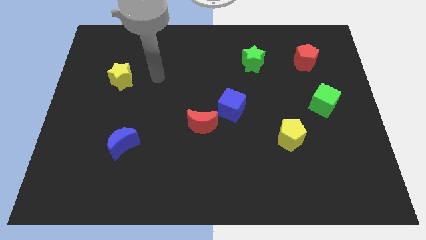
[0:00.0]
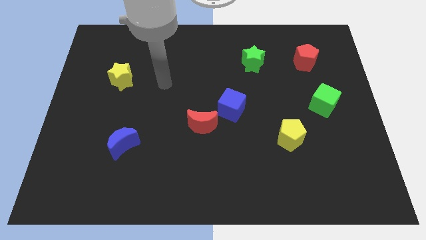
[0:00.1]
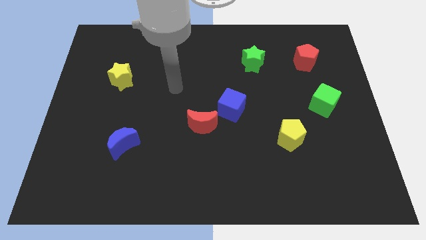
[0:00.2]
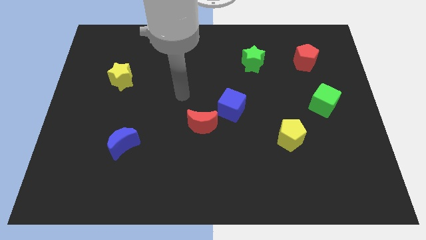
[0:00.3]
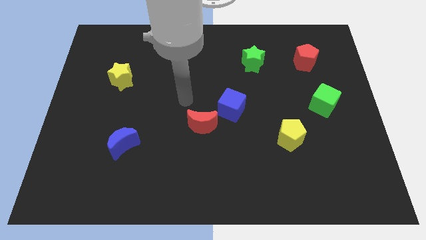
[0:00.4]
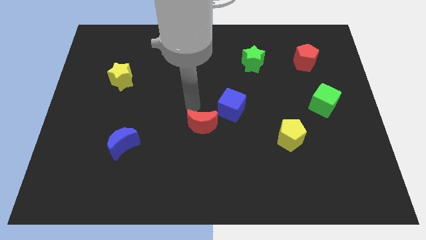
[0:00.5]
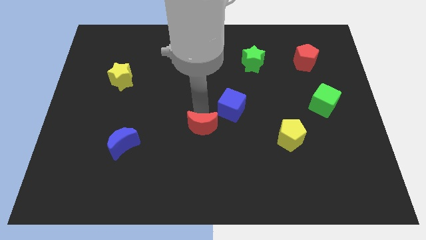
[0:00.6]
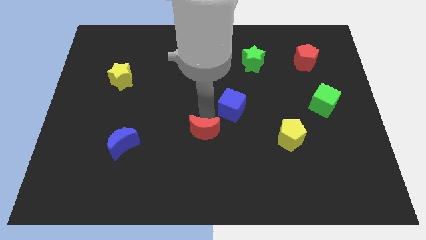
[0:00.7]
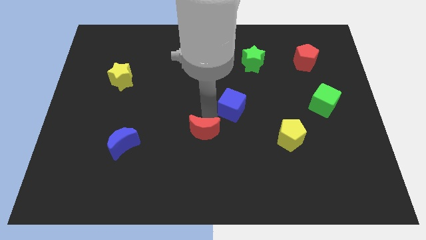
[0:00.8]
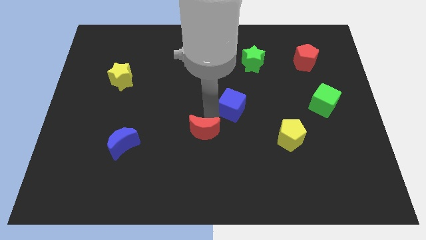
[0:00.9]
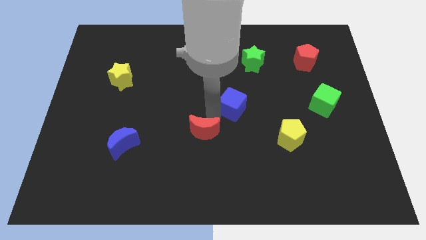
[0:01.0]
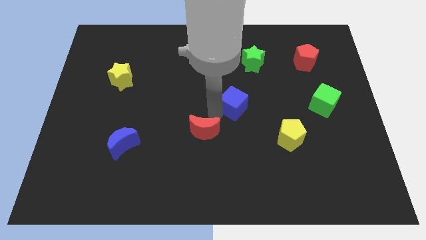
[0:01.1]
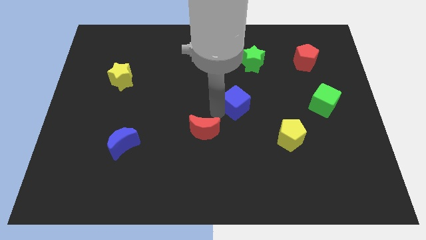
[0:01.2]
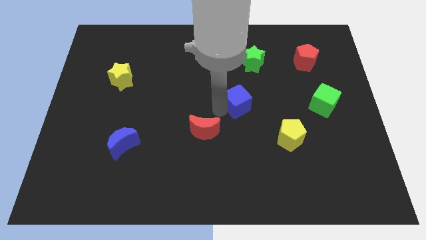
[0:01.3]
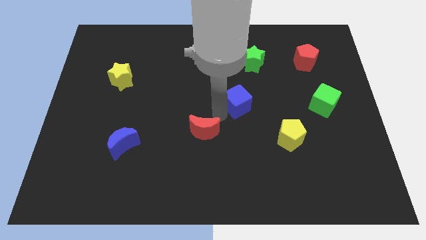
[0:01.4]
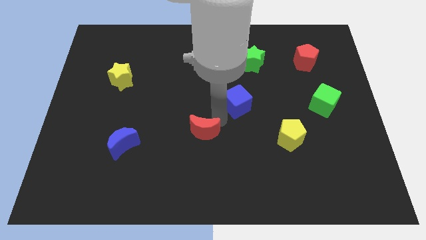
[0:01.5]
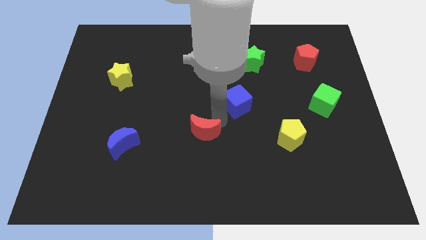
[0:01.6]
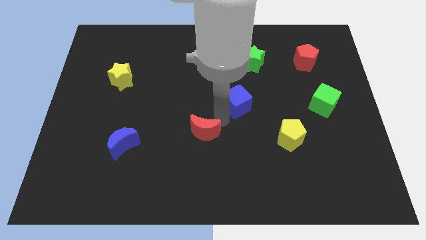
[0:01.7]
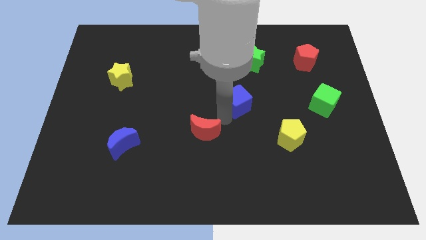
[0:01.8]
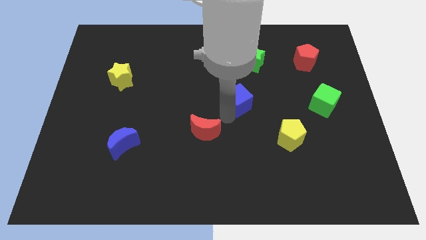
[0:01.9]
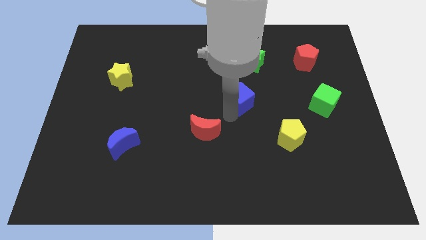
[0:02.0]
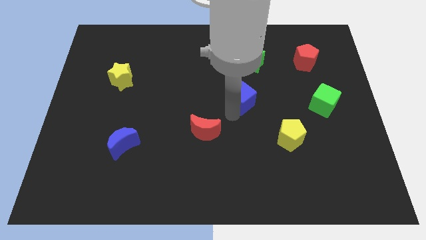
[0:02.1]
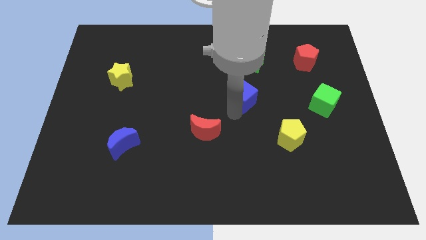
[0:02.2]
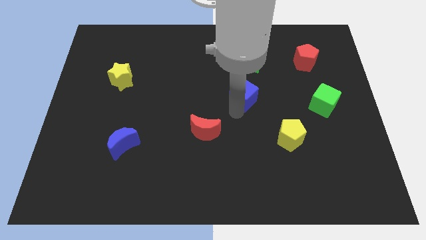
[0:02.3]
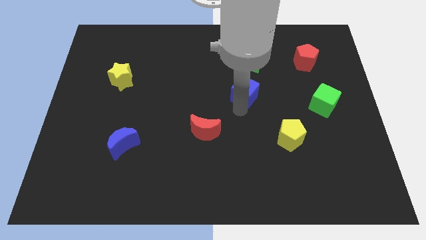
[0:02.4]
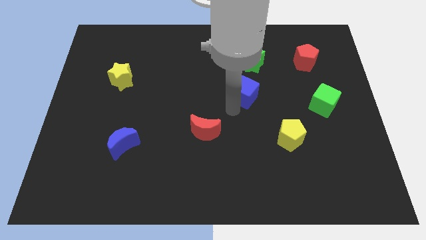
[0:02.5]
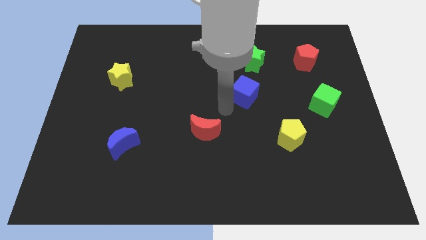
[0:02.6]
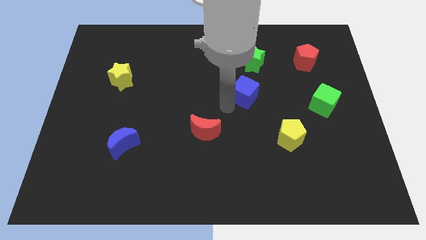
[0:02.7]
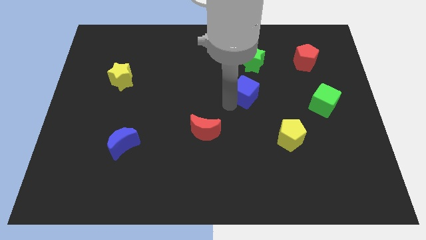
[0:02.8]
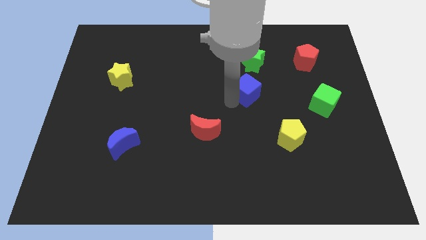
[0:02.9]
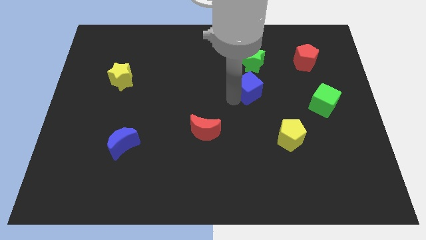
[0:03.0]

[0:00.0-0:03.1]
move the blue cube up and to the right somewhat

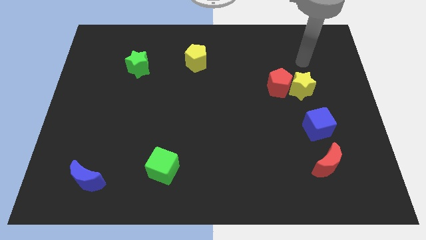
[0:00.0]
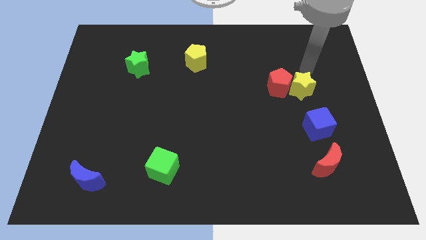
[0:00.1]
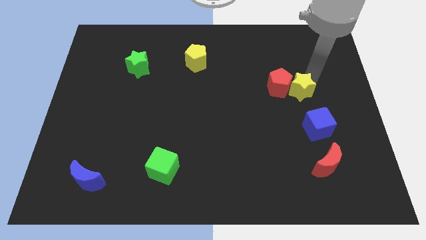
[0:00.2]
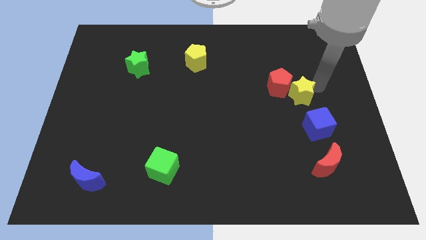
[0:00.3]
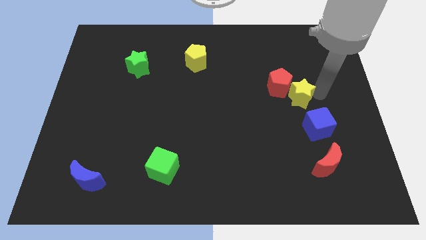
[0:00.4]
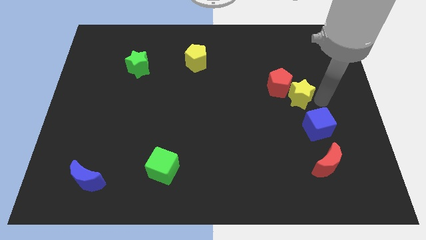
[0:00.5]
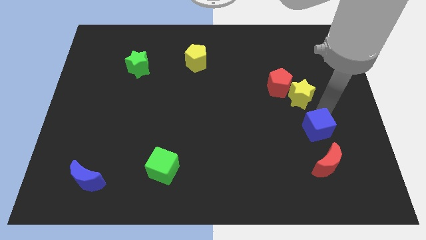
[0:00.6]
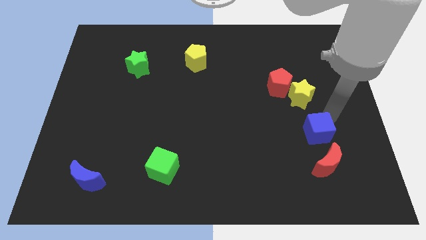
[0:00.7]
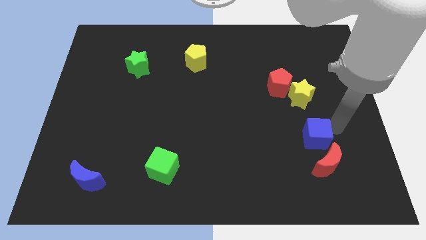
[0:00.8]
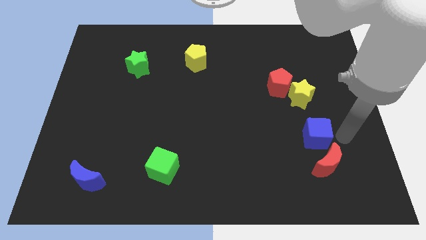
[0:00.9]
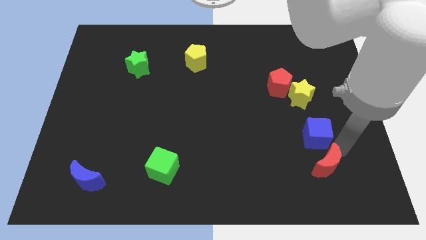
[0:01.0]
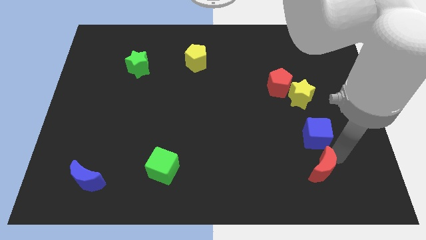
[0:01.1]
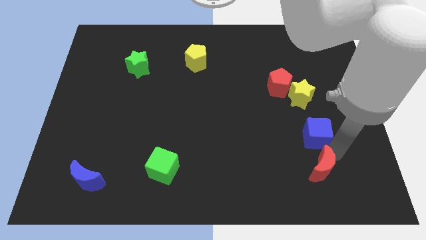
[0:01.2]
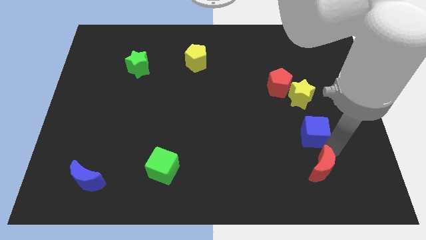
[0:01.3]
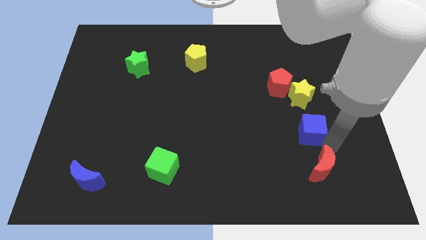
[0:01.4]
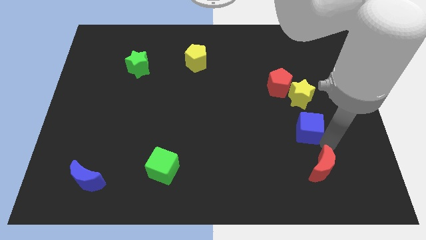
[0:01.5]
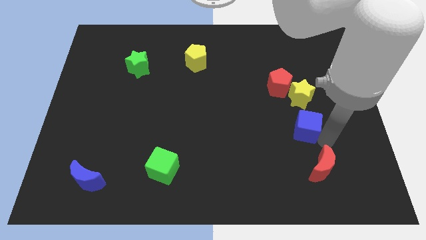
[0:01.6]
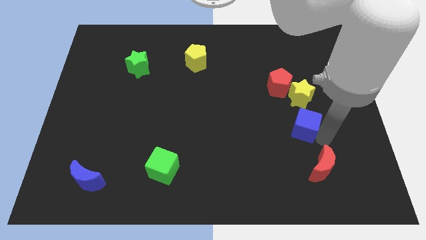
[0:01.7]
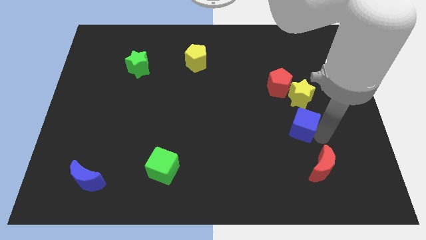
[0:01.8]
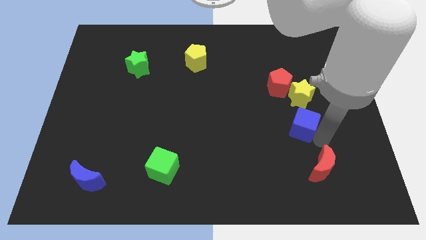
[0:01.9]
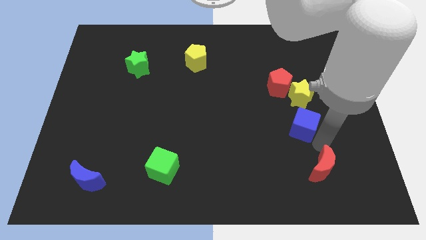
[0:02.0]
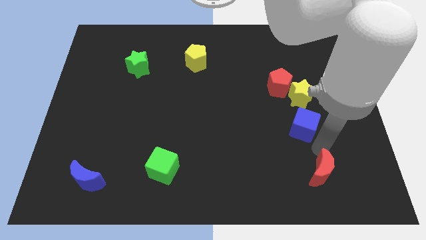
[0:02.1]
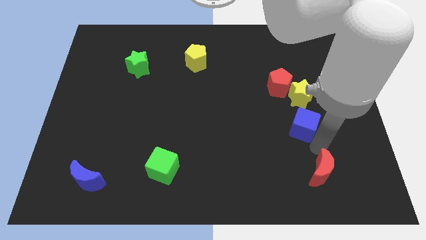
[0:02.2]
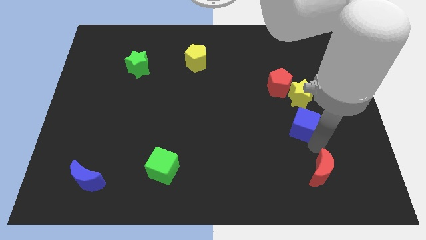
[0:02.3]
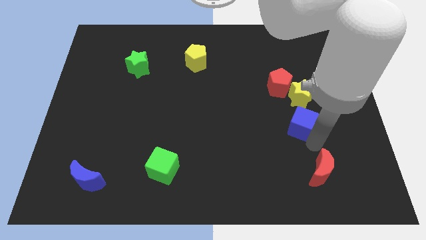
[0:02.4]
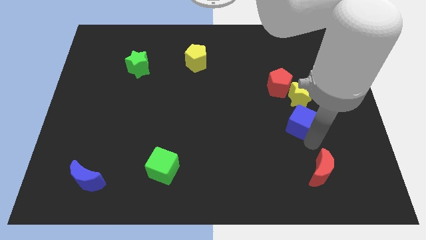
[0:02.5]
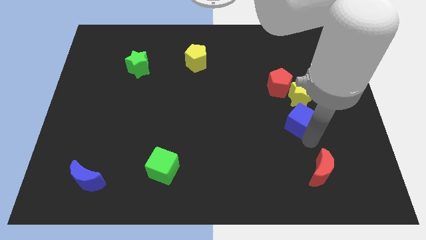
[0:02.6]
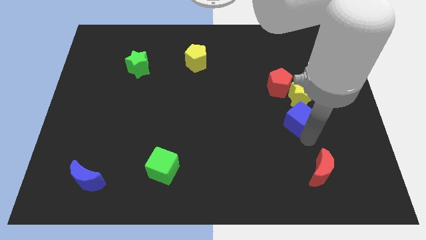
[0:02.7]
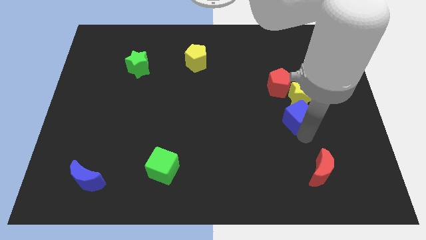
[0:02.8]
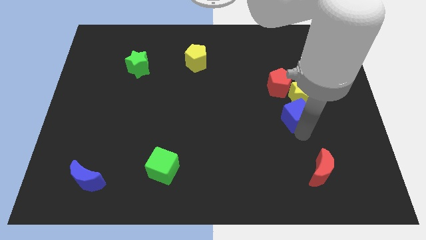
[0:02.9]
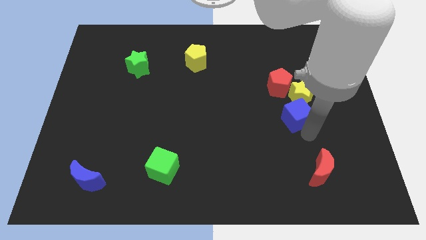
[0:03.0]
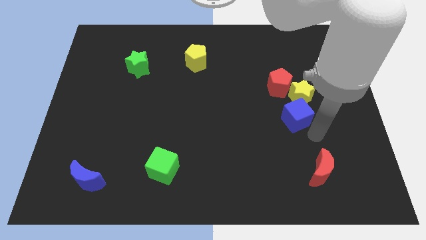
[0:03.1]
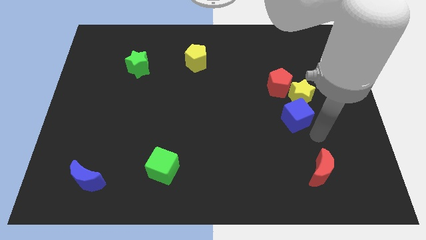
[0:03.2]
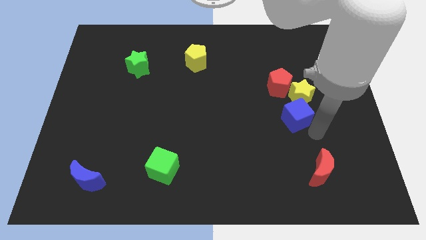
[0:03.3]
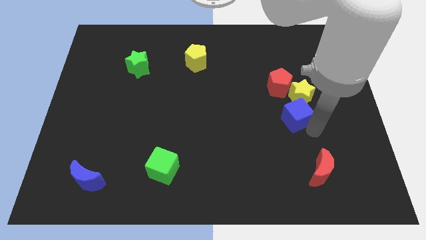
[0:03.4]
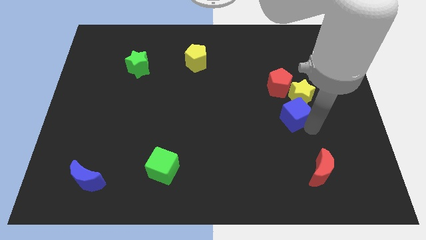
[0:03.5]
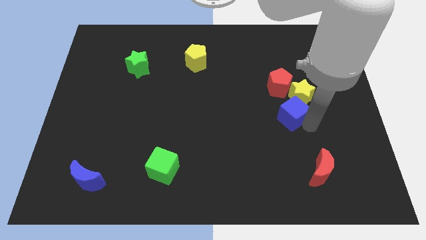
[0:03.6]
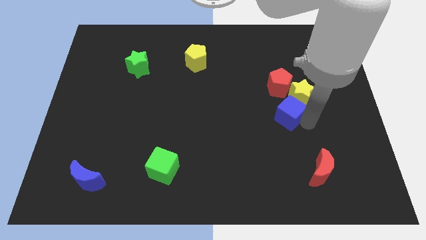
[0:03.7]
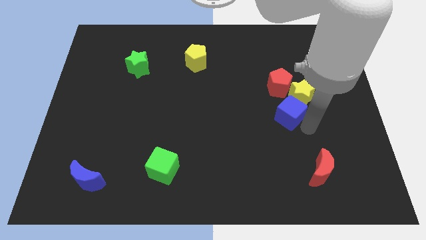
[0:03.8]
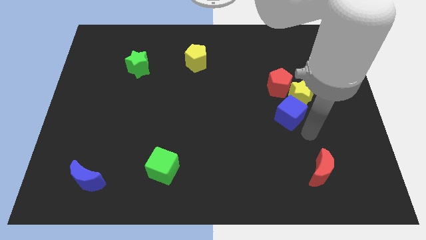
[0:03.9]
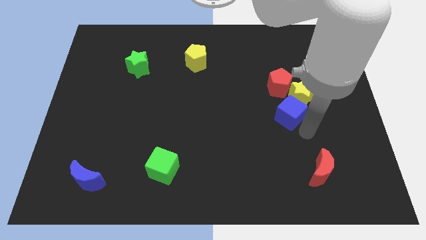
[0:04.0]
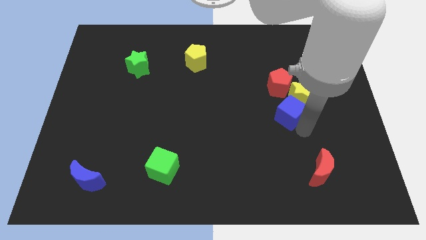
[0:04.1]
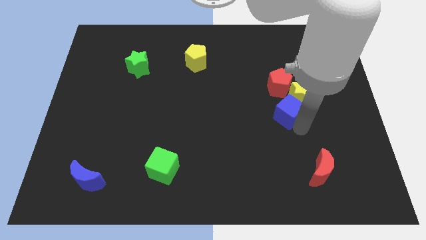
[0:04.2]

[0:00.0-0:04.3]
move the blue cube diagonally upwards and left a little

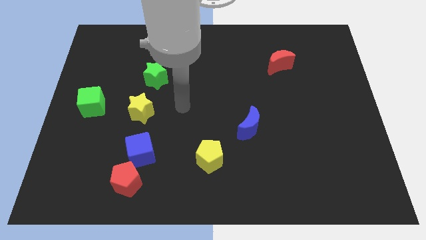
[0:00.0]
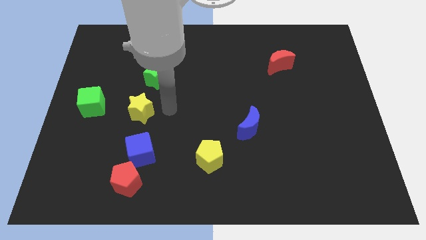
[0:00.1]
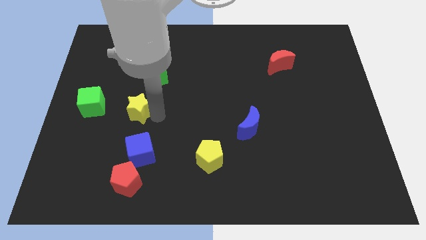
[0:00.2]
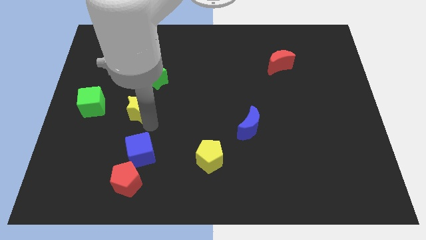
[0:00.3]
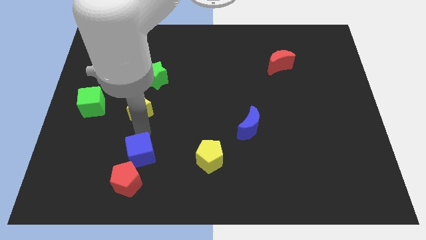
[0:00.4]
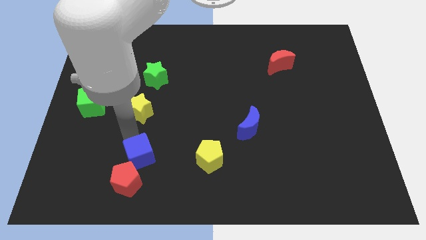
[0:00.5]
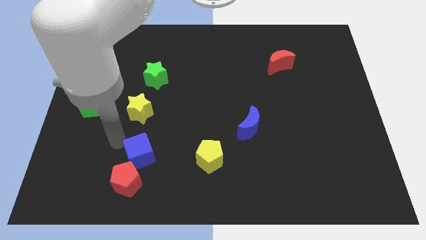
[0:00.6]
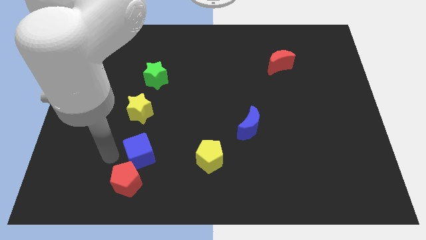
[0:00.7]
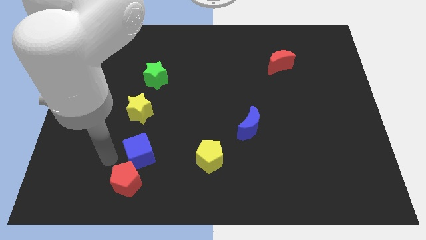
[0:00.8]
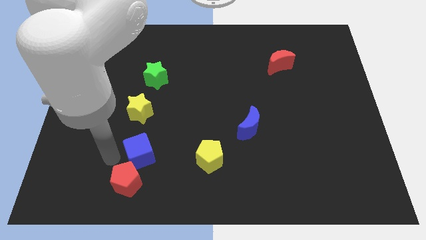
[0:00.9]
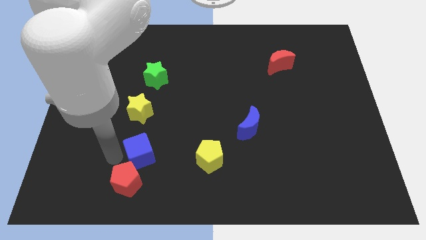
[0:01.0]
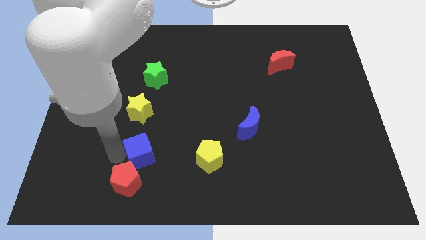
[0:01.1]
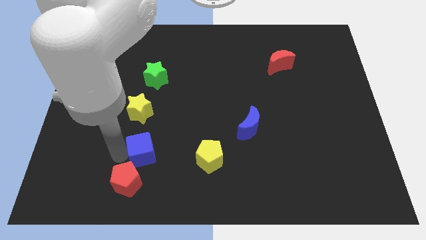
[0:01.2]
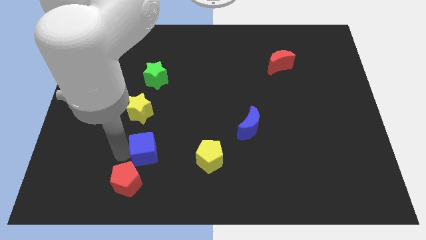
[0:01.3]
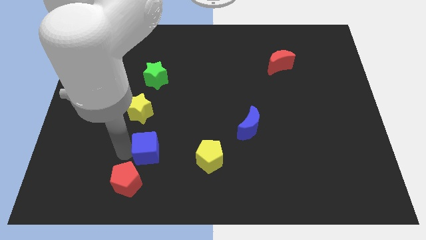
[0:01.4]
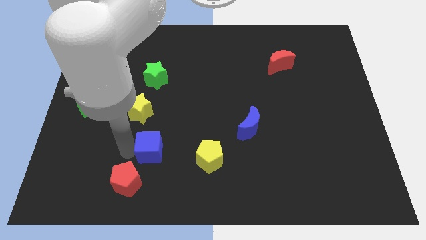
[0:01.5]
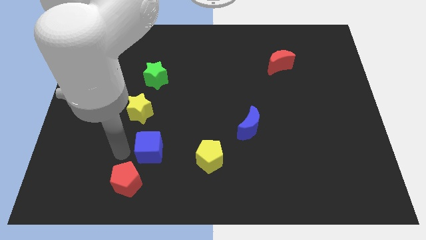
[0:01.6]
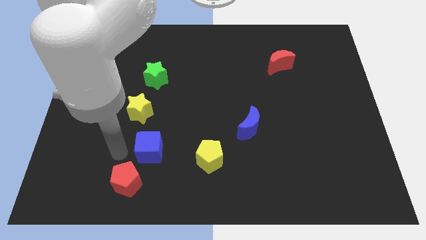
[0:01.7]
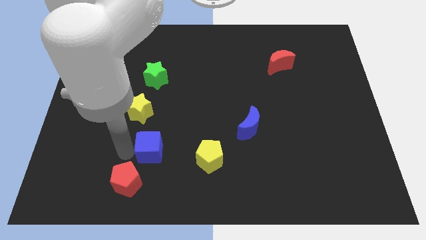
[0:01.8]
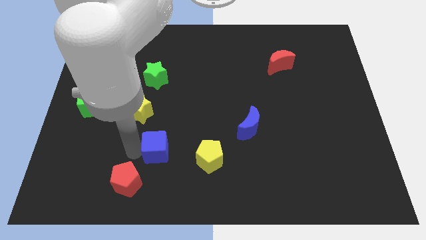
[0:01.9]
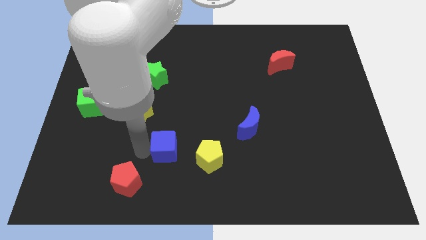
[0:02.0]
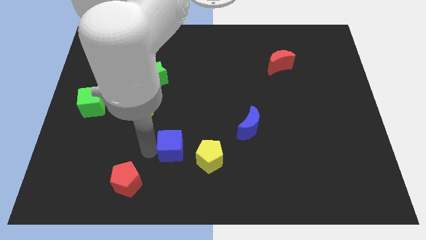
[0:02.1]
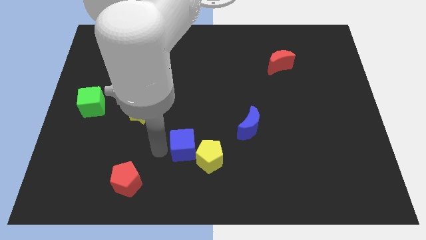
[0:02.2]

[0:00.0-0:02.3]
slightly slide the blue cube to the right
